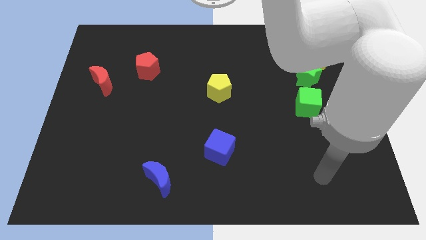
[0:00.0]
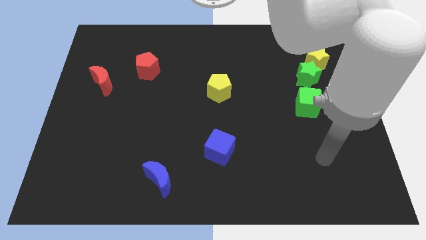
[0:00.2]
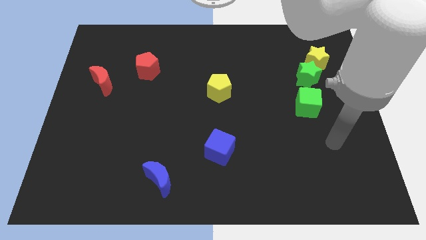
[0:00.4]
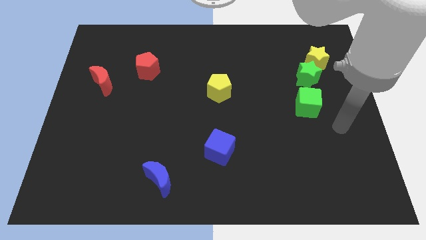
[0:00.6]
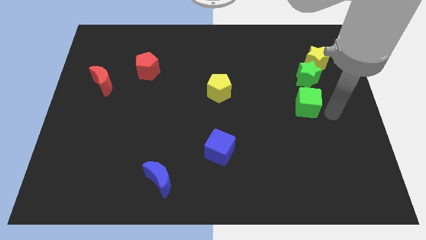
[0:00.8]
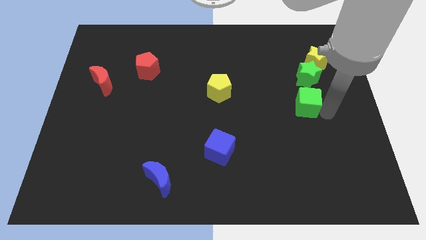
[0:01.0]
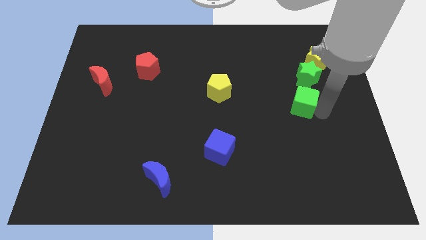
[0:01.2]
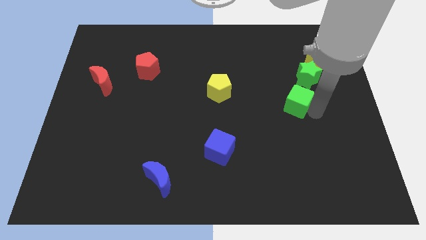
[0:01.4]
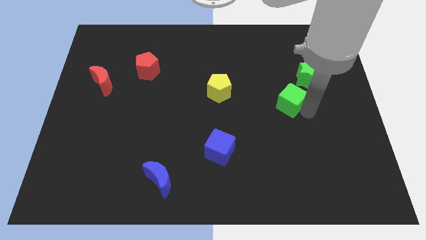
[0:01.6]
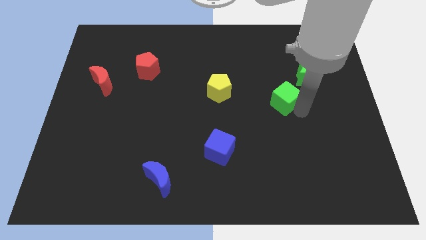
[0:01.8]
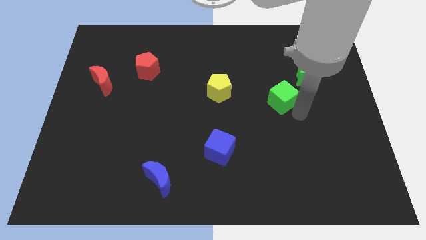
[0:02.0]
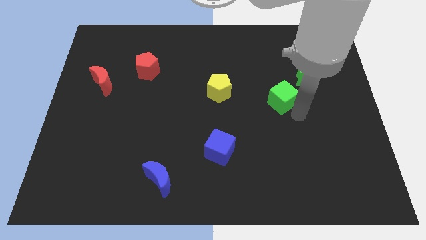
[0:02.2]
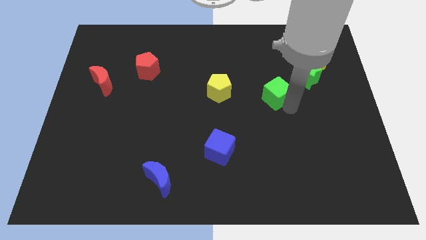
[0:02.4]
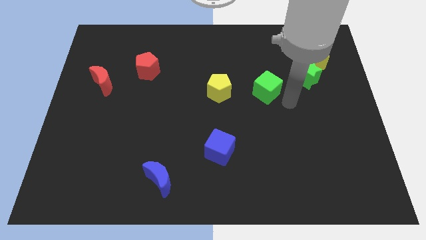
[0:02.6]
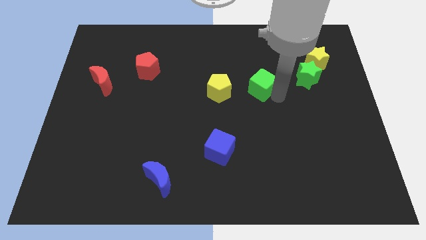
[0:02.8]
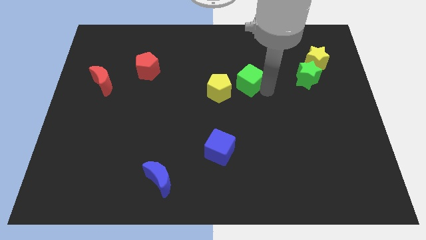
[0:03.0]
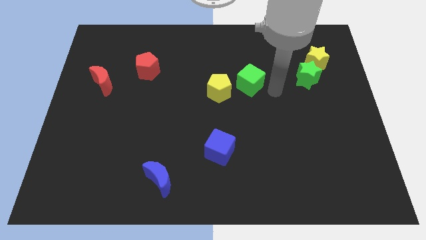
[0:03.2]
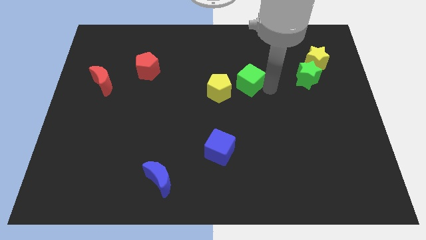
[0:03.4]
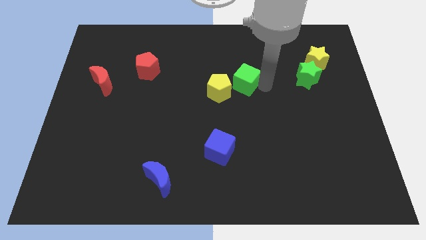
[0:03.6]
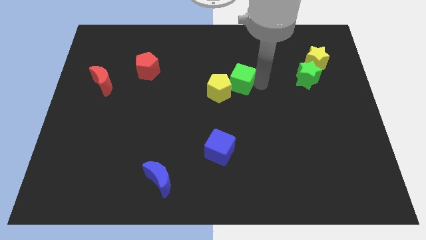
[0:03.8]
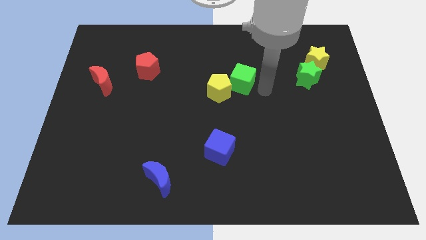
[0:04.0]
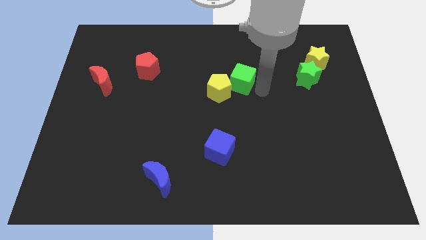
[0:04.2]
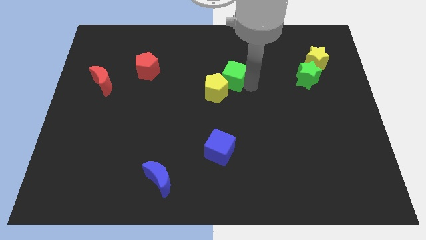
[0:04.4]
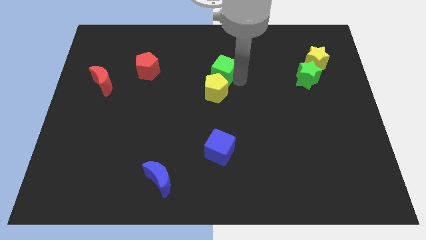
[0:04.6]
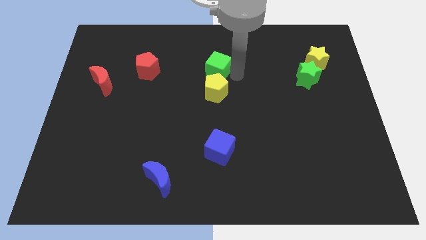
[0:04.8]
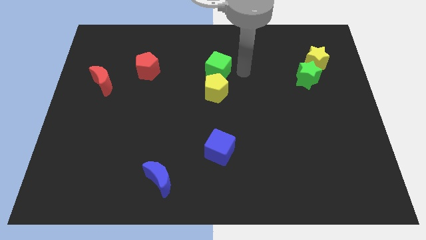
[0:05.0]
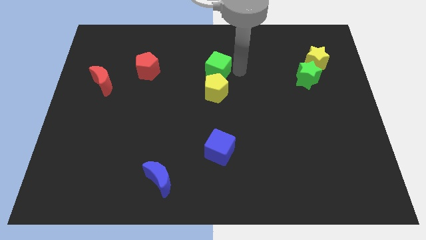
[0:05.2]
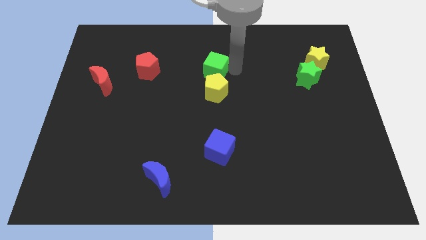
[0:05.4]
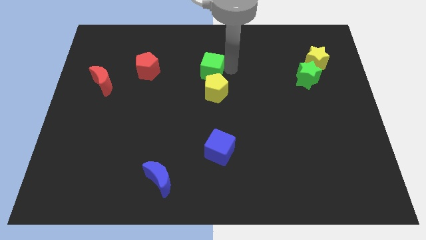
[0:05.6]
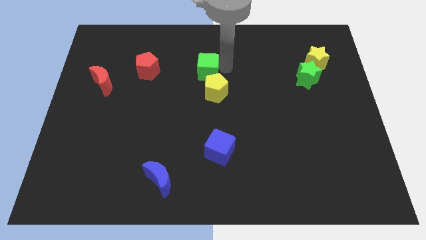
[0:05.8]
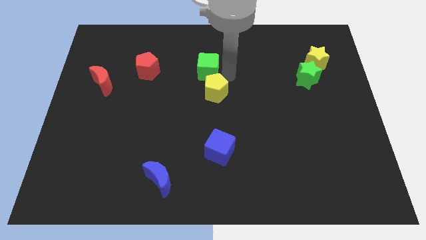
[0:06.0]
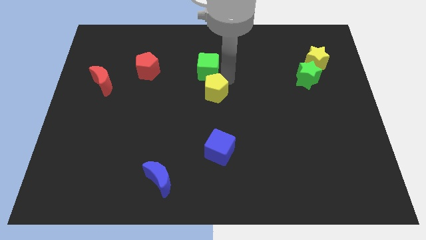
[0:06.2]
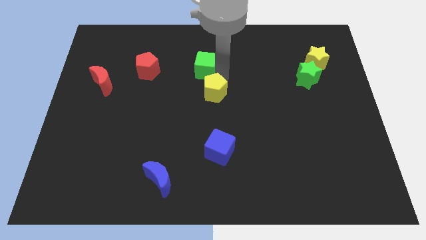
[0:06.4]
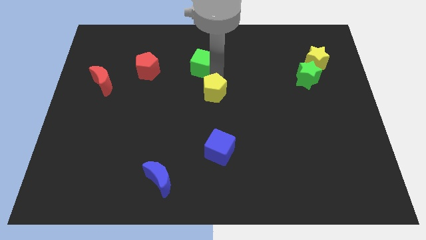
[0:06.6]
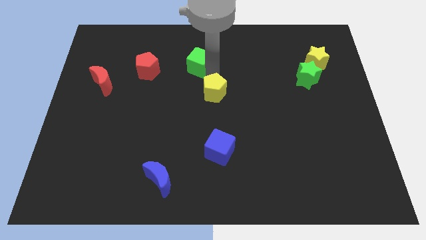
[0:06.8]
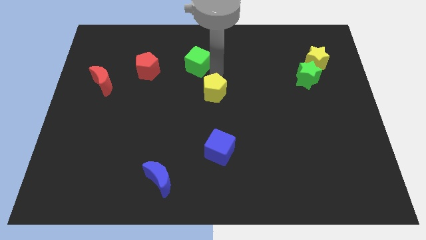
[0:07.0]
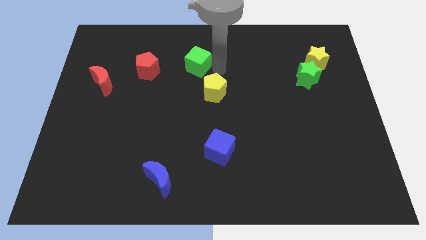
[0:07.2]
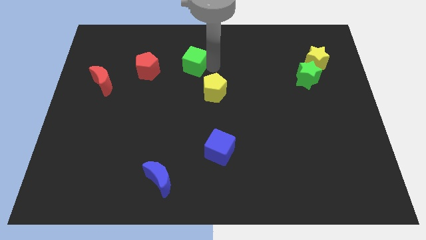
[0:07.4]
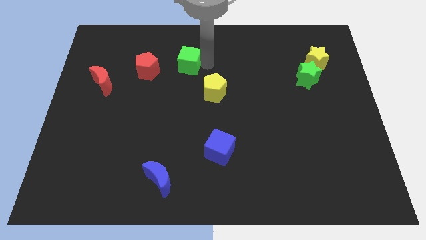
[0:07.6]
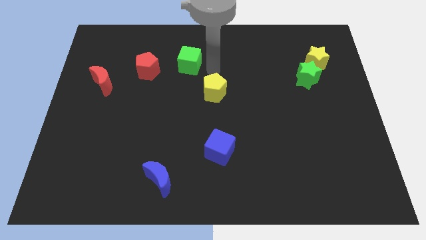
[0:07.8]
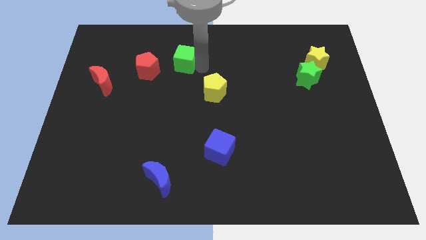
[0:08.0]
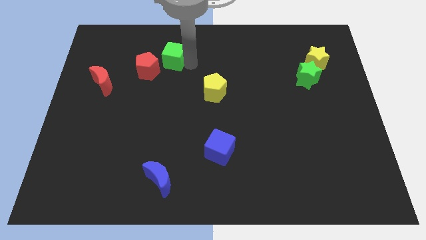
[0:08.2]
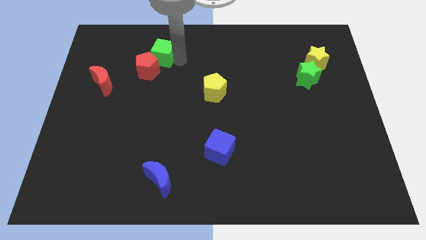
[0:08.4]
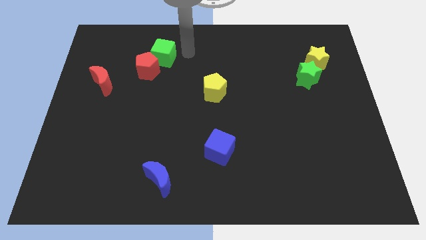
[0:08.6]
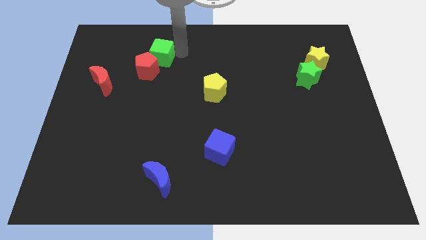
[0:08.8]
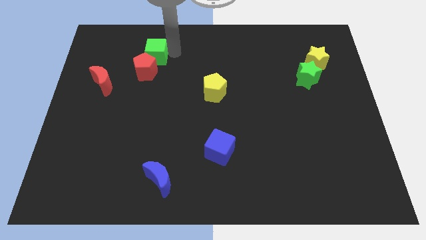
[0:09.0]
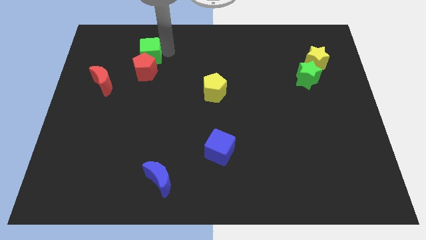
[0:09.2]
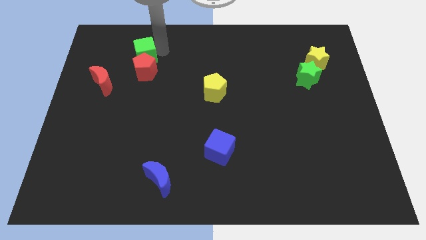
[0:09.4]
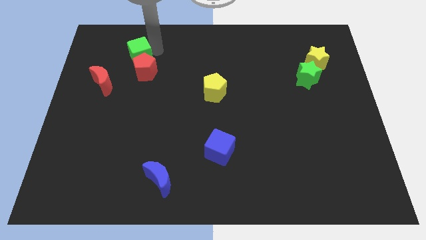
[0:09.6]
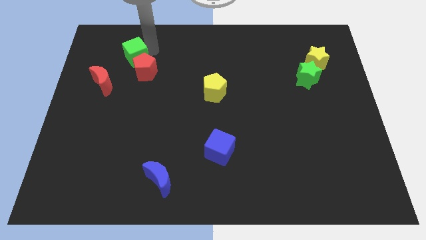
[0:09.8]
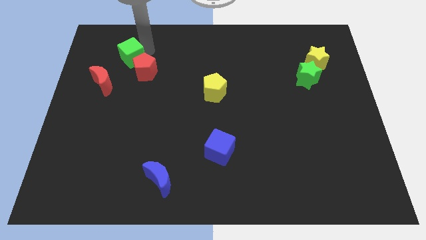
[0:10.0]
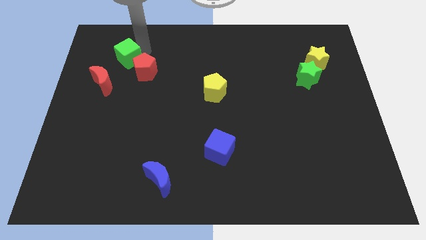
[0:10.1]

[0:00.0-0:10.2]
put the green cube left of the red pentagon

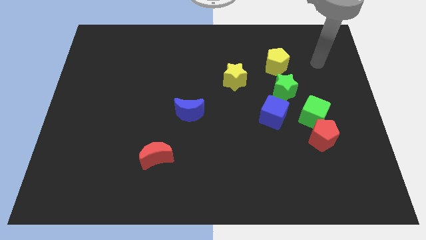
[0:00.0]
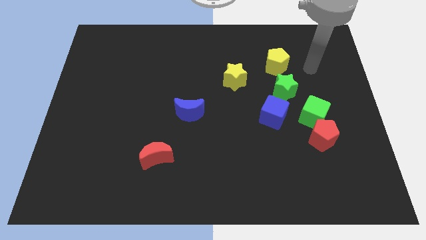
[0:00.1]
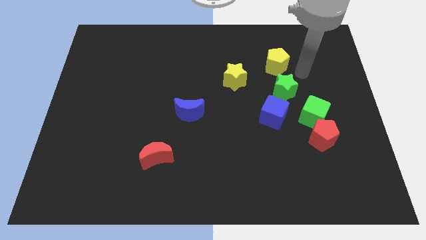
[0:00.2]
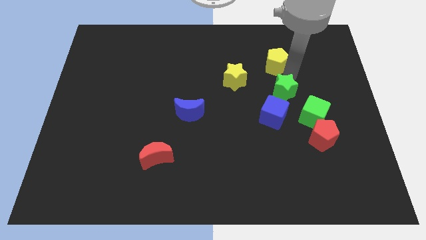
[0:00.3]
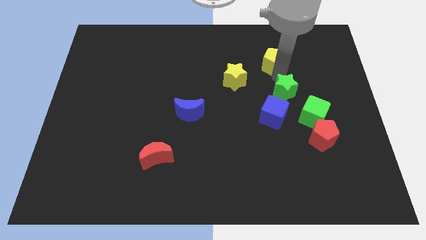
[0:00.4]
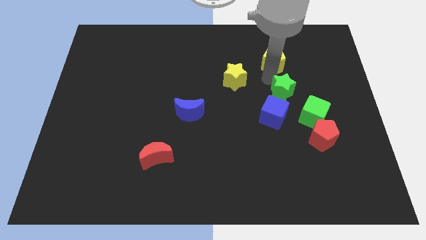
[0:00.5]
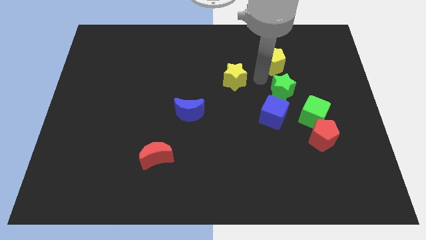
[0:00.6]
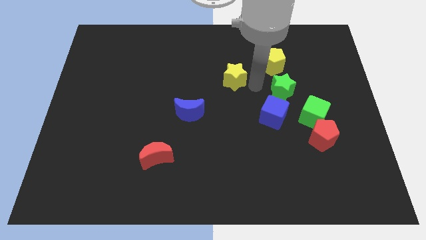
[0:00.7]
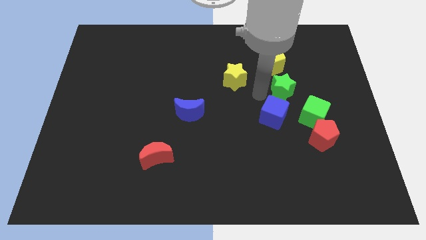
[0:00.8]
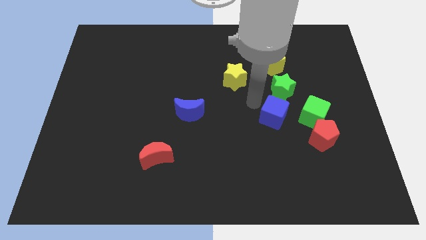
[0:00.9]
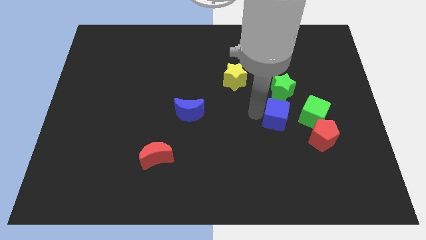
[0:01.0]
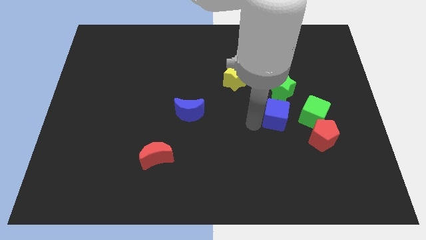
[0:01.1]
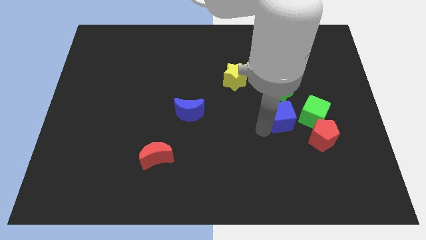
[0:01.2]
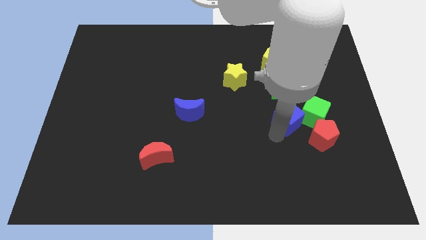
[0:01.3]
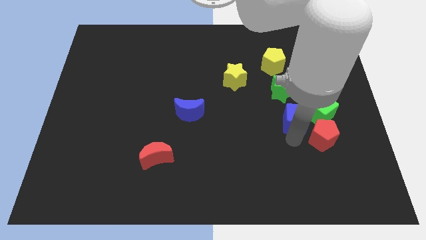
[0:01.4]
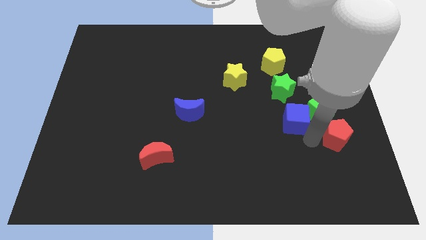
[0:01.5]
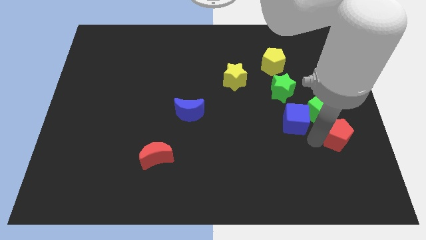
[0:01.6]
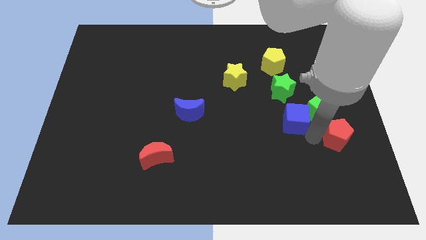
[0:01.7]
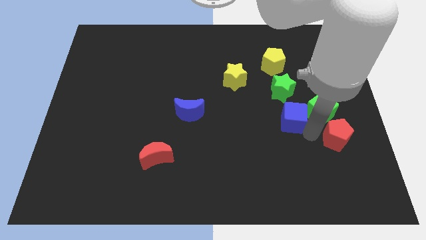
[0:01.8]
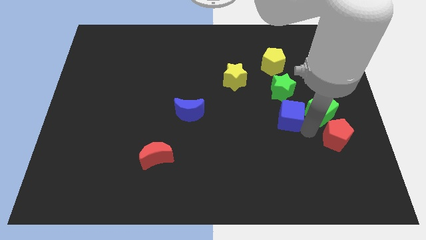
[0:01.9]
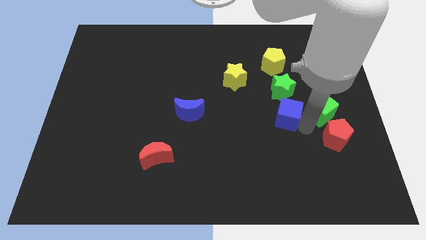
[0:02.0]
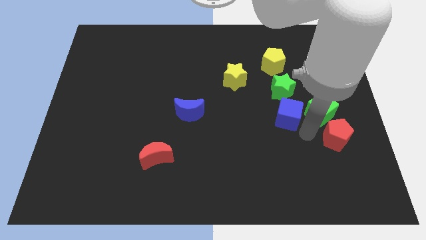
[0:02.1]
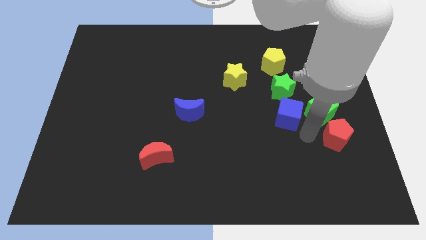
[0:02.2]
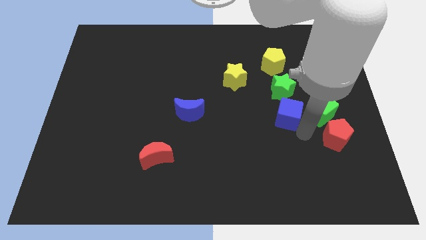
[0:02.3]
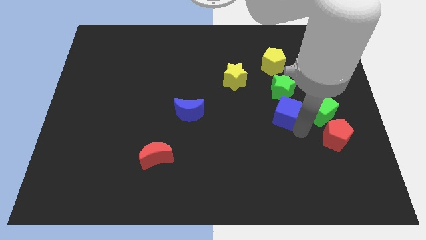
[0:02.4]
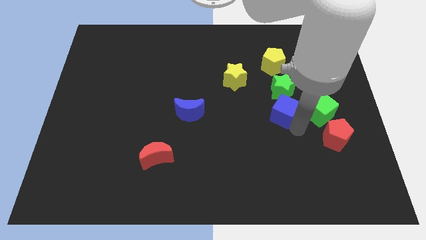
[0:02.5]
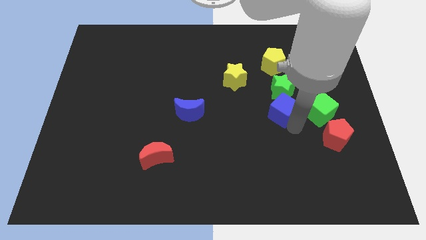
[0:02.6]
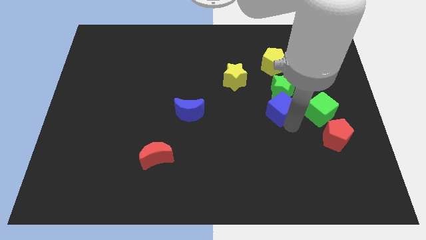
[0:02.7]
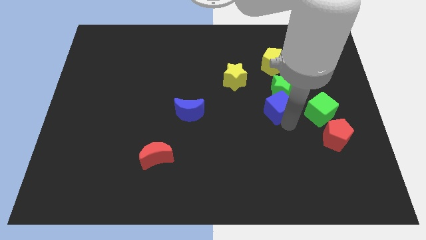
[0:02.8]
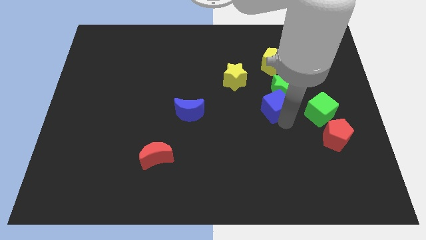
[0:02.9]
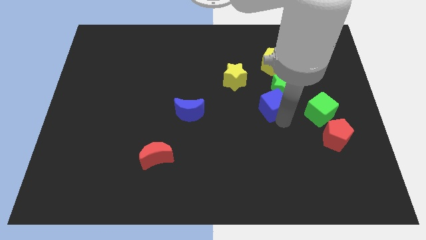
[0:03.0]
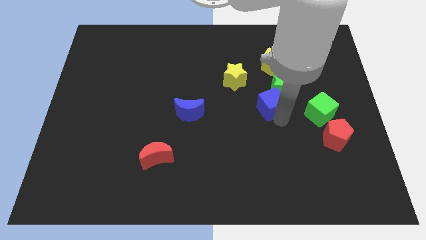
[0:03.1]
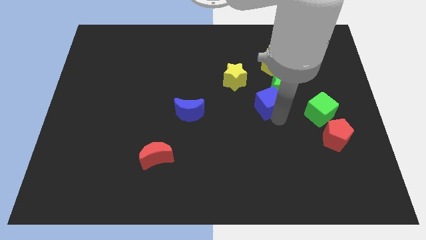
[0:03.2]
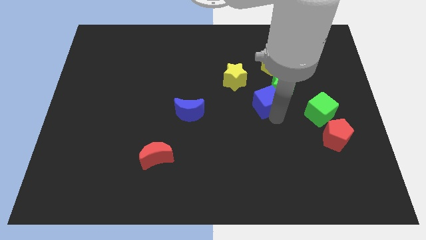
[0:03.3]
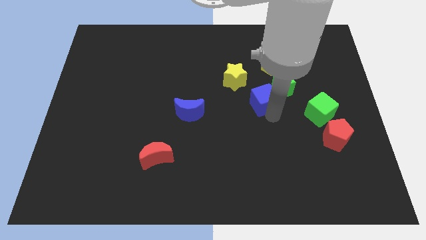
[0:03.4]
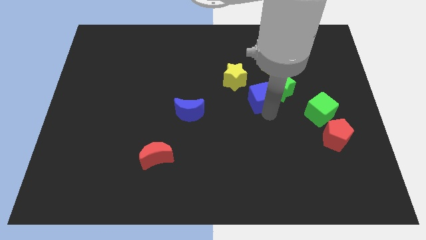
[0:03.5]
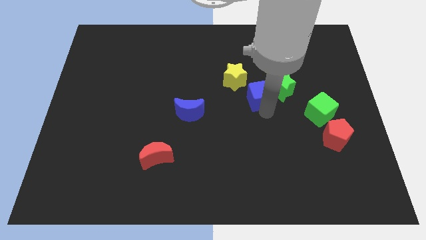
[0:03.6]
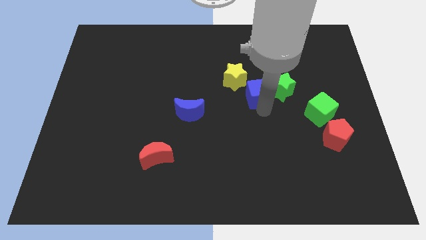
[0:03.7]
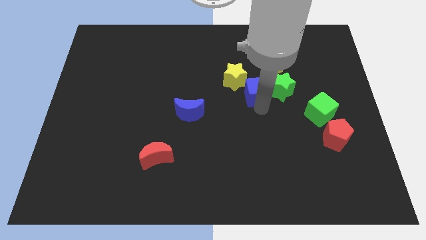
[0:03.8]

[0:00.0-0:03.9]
put the blue cube to the bottom left of the yellow pentagon
